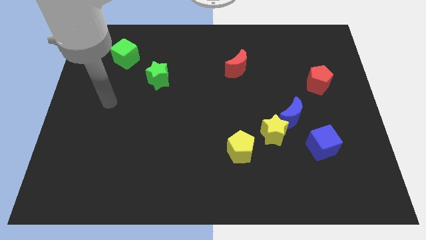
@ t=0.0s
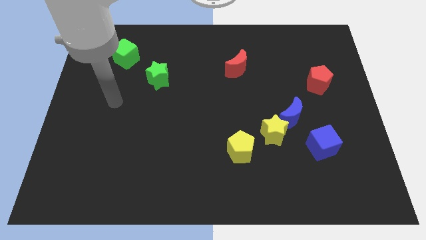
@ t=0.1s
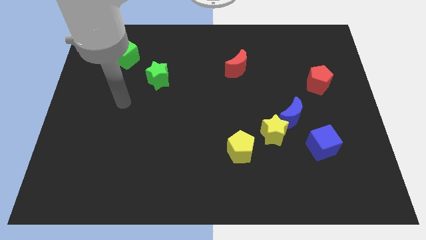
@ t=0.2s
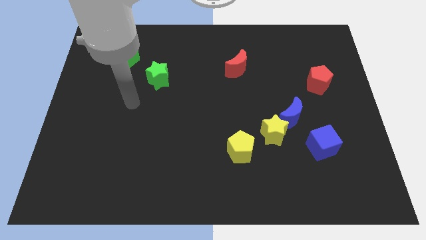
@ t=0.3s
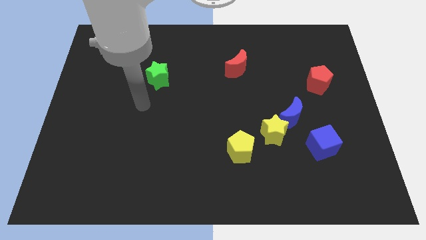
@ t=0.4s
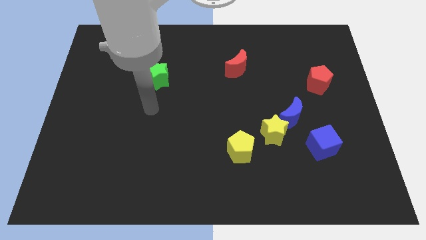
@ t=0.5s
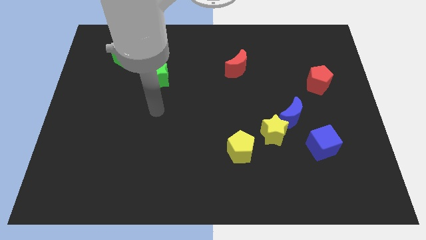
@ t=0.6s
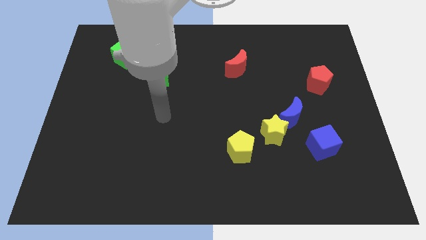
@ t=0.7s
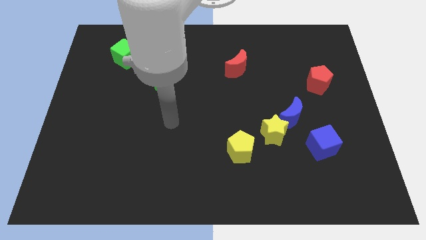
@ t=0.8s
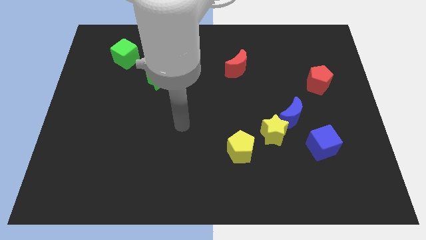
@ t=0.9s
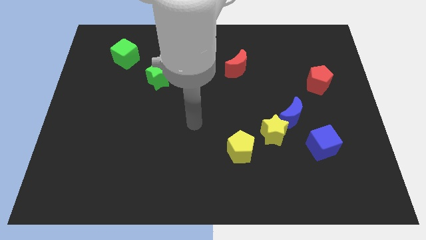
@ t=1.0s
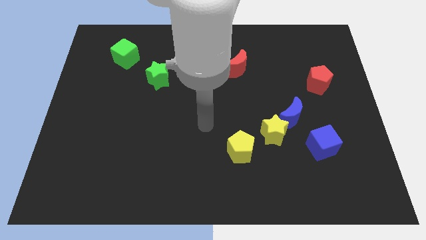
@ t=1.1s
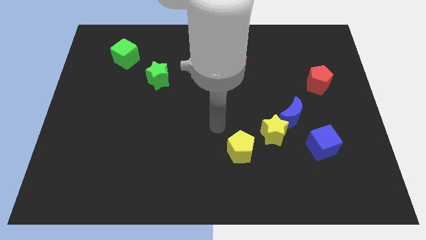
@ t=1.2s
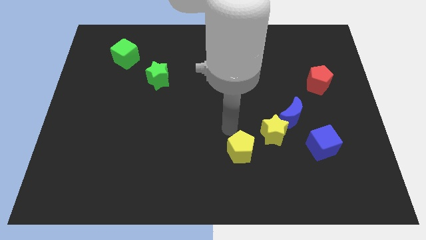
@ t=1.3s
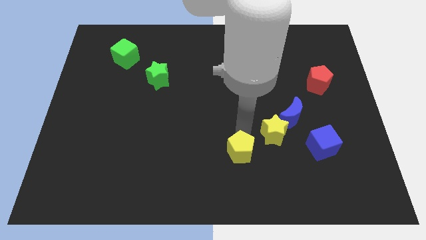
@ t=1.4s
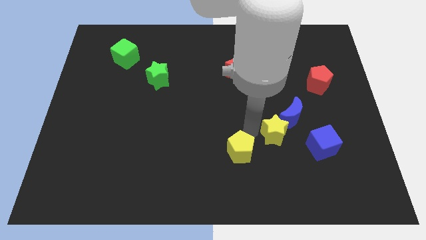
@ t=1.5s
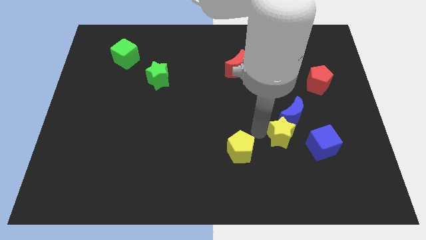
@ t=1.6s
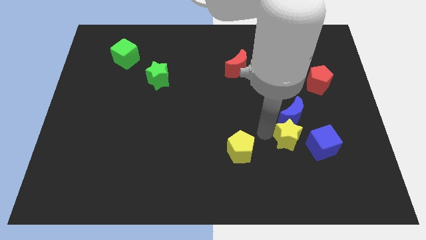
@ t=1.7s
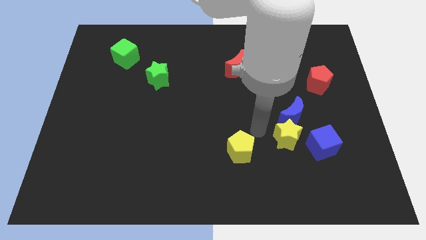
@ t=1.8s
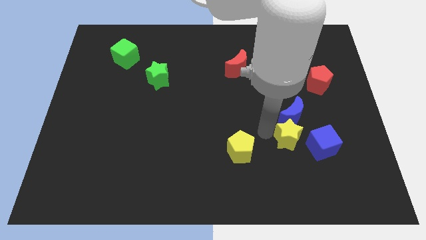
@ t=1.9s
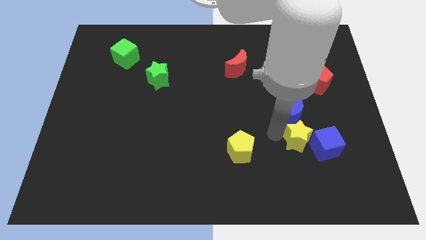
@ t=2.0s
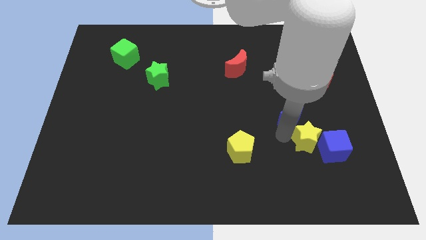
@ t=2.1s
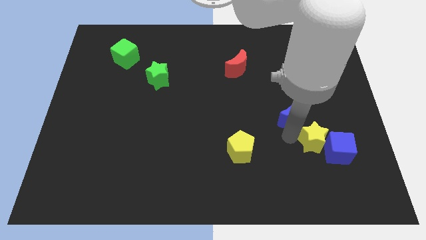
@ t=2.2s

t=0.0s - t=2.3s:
separate the yellow star from the blue moon and yellow pentagon

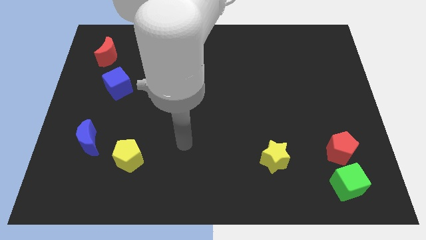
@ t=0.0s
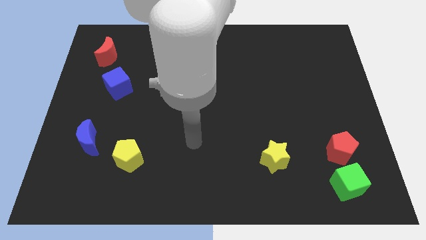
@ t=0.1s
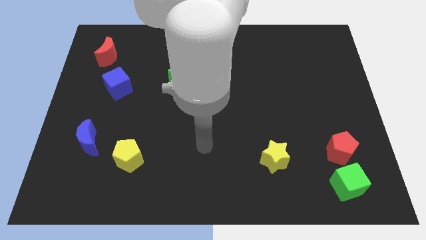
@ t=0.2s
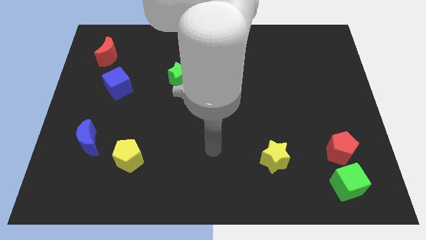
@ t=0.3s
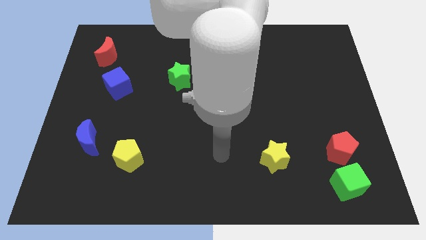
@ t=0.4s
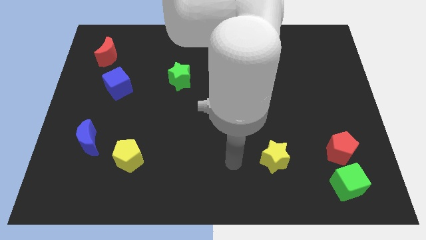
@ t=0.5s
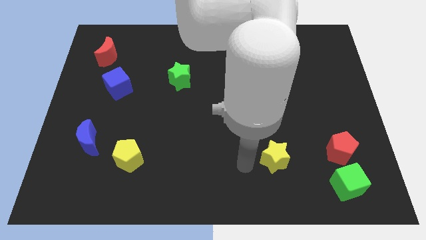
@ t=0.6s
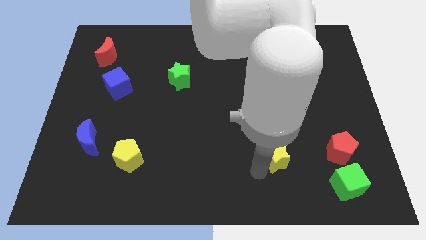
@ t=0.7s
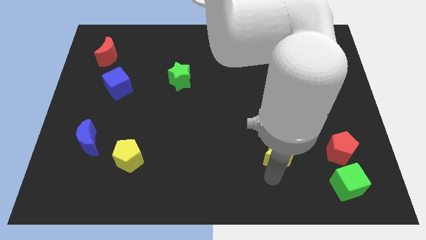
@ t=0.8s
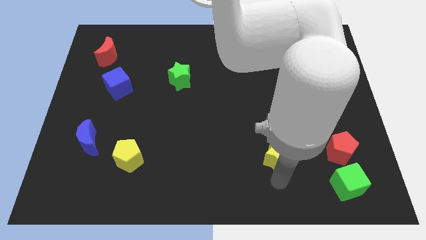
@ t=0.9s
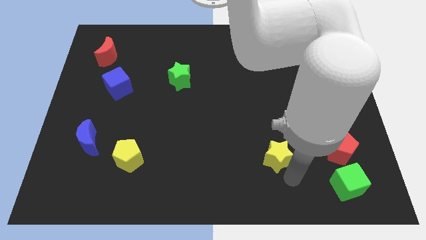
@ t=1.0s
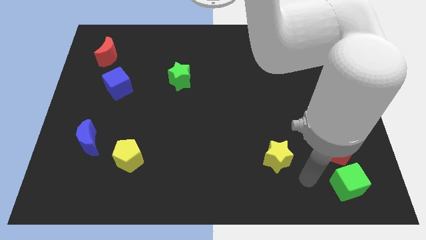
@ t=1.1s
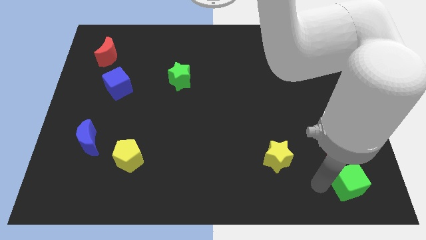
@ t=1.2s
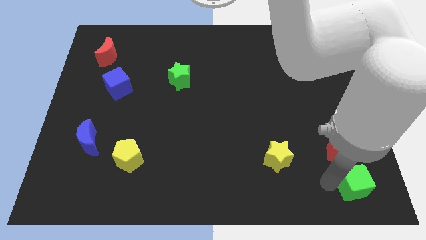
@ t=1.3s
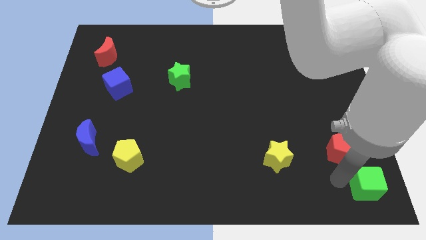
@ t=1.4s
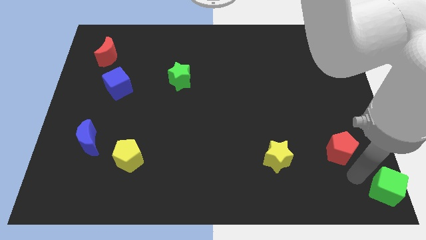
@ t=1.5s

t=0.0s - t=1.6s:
pull the red pentagon apart from the green cube

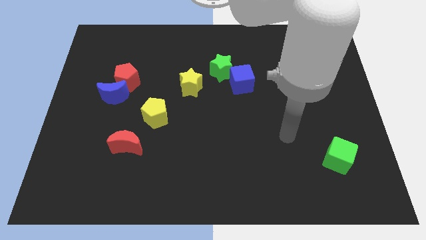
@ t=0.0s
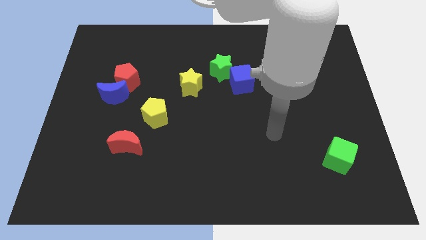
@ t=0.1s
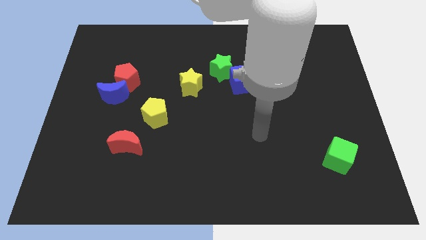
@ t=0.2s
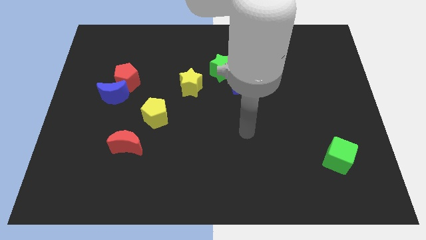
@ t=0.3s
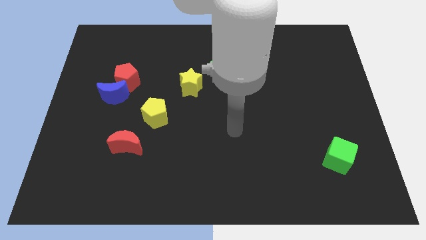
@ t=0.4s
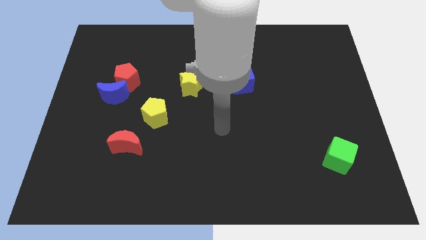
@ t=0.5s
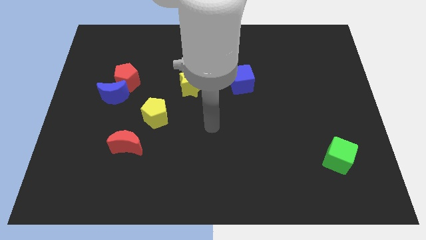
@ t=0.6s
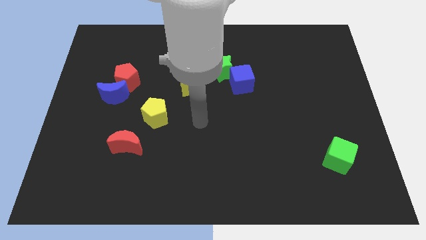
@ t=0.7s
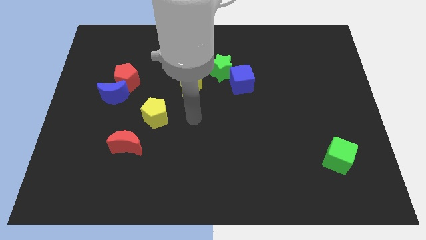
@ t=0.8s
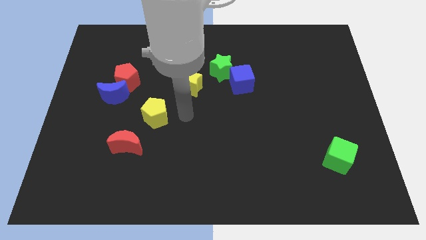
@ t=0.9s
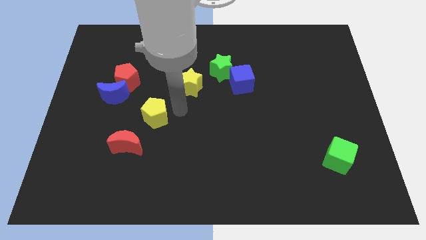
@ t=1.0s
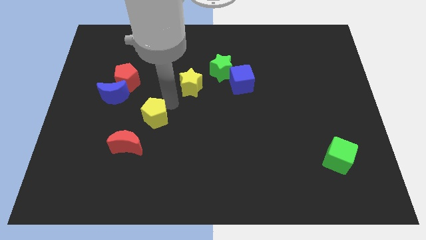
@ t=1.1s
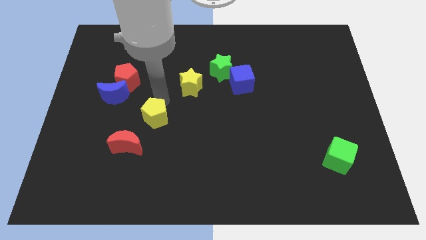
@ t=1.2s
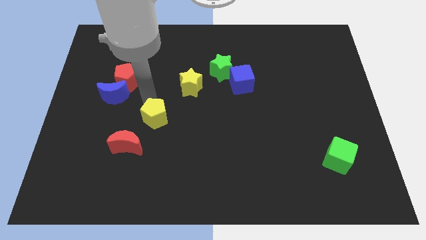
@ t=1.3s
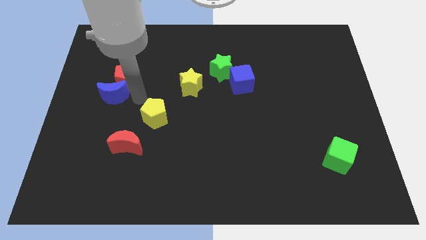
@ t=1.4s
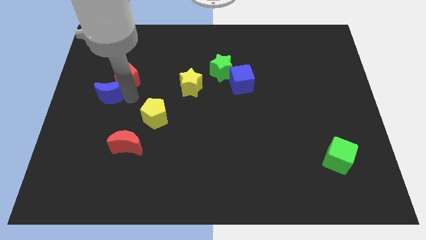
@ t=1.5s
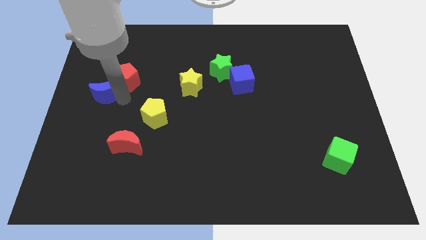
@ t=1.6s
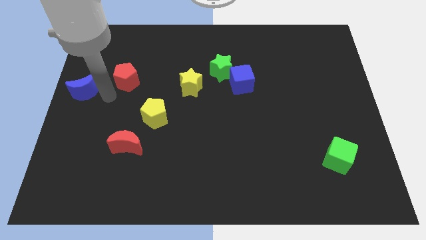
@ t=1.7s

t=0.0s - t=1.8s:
move the red pentagon away from the blue moon

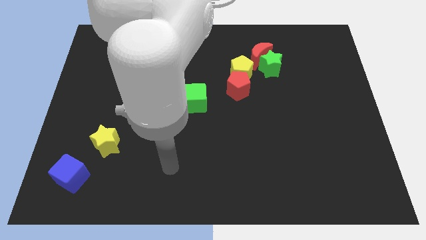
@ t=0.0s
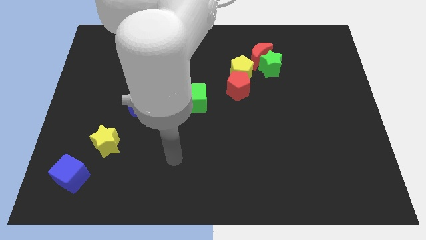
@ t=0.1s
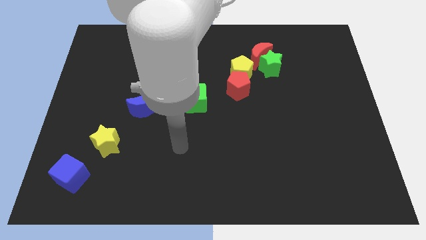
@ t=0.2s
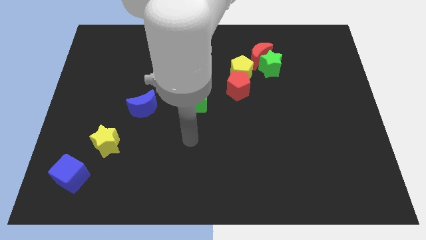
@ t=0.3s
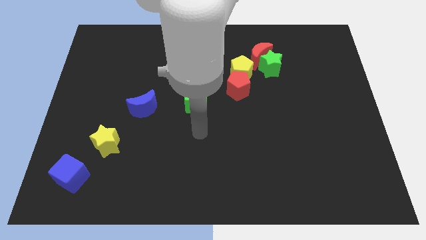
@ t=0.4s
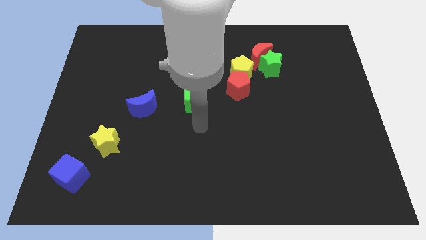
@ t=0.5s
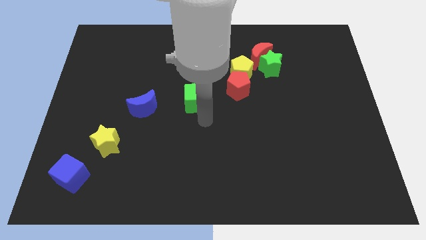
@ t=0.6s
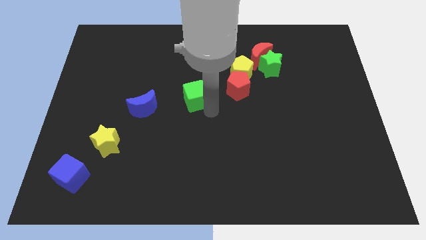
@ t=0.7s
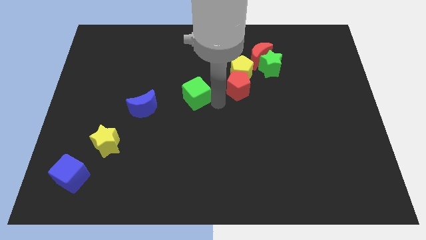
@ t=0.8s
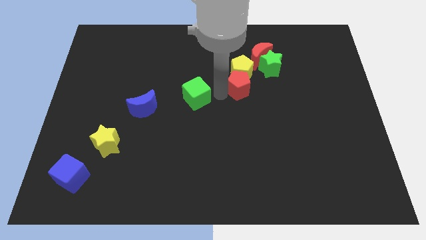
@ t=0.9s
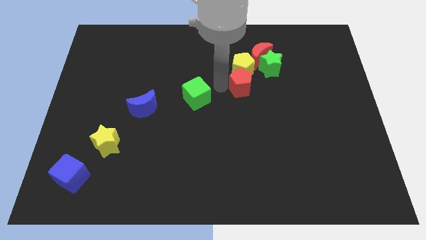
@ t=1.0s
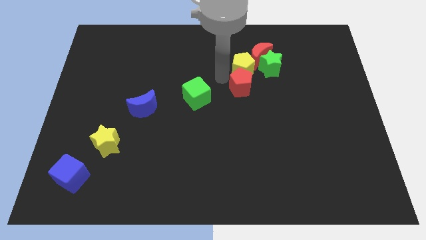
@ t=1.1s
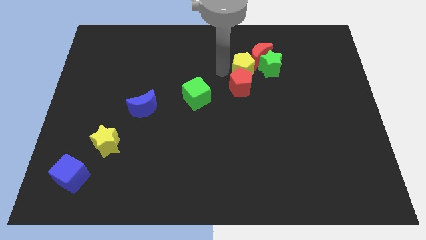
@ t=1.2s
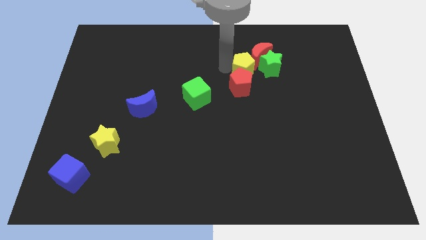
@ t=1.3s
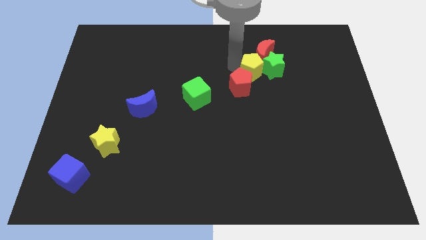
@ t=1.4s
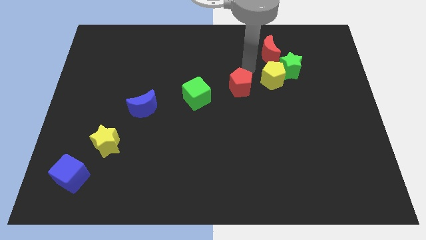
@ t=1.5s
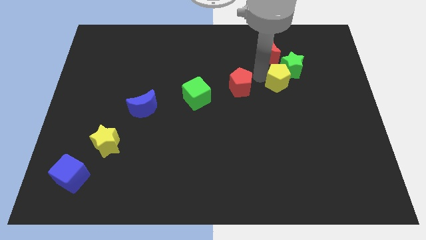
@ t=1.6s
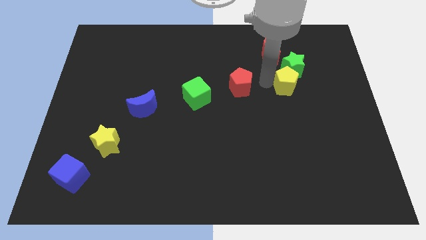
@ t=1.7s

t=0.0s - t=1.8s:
pull the red pentagon apart from the yellow pentagon

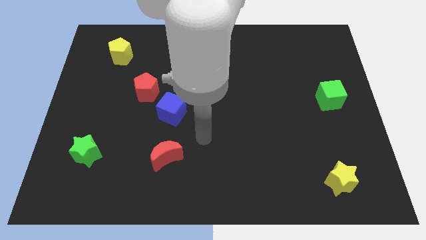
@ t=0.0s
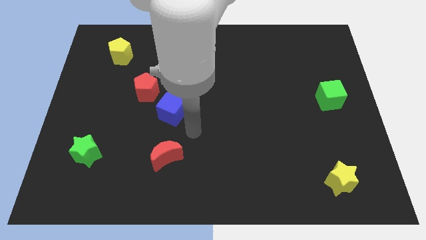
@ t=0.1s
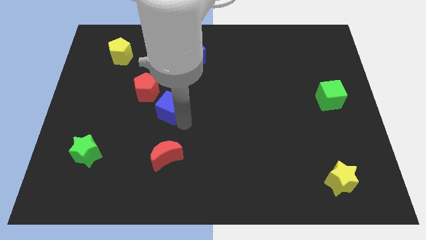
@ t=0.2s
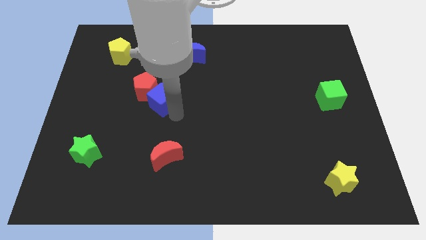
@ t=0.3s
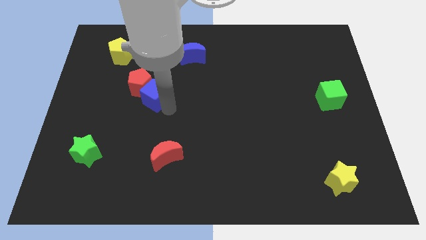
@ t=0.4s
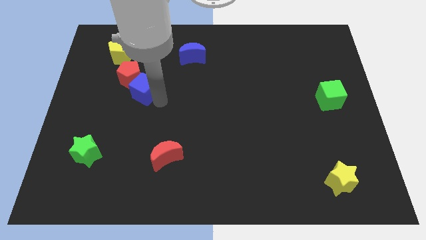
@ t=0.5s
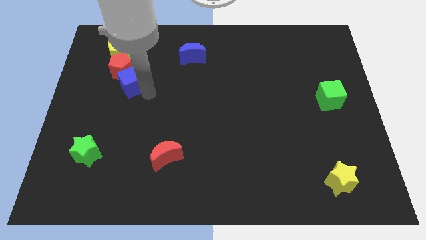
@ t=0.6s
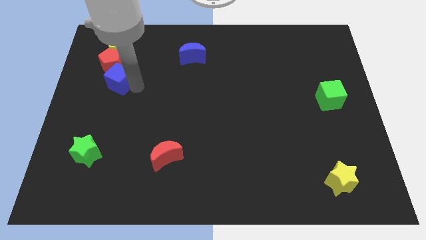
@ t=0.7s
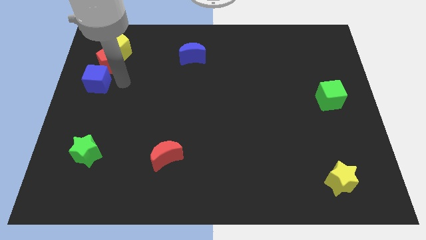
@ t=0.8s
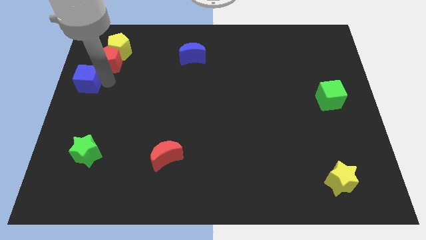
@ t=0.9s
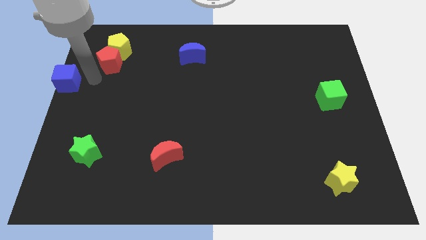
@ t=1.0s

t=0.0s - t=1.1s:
move the red pentagon away from the blue cube

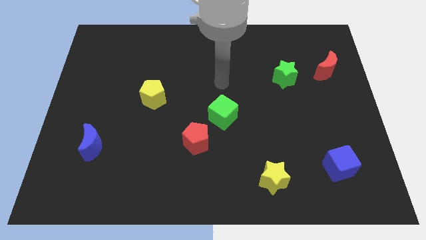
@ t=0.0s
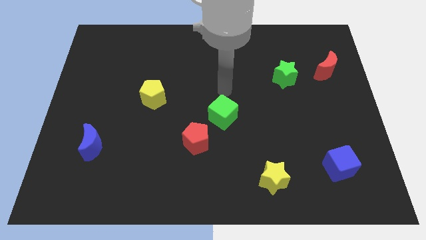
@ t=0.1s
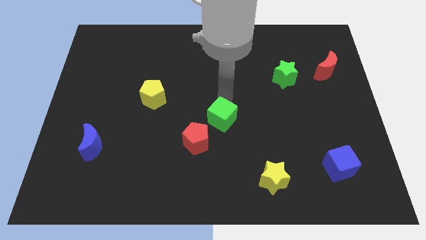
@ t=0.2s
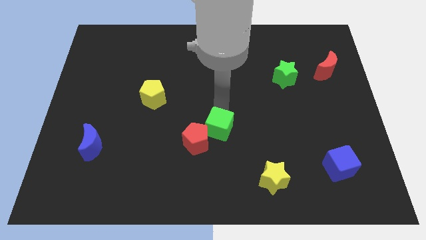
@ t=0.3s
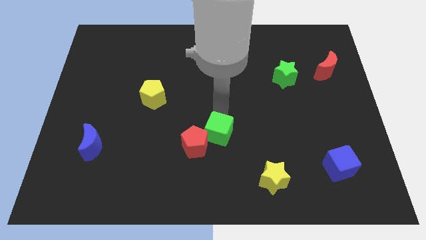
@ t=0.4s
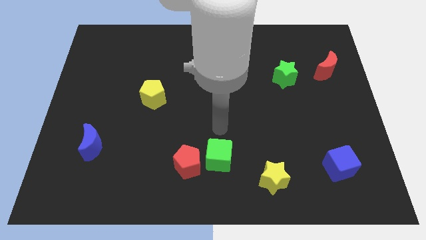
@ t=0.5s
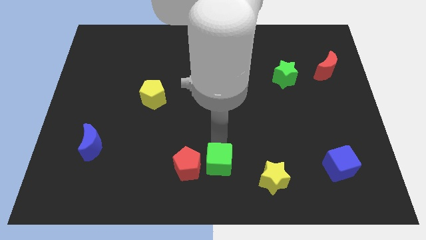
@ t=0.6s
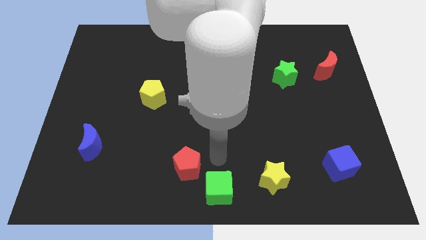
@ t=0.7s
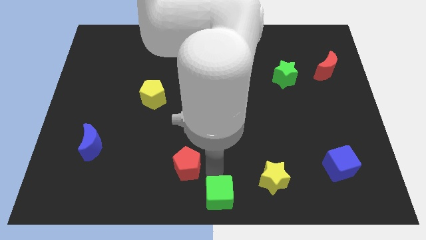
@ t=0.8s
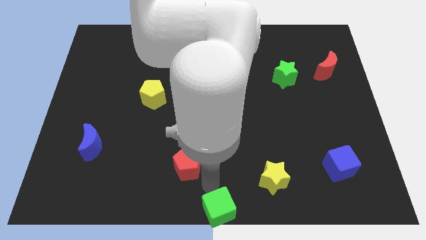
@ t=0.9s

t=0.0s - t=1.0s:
separate the red pentagon from the green cube
